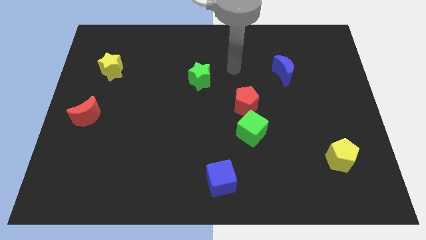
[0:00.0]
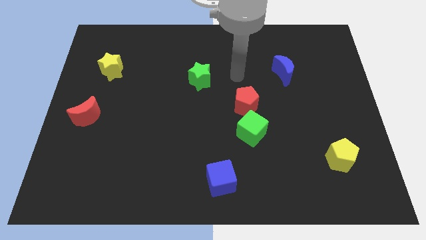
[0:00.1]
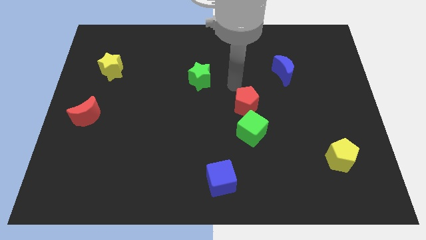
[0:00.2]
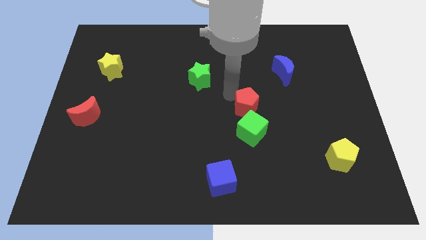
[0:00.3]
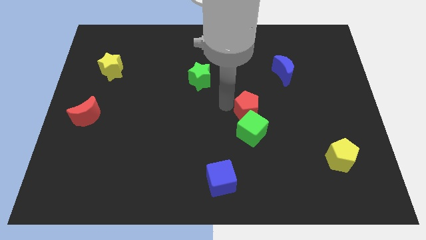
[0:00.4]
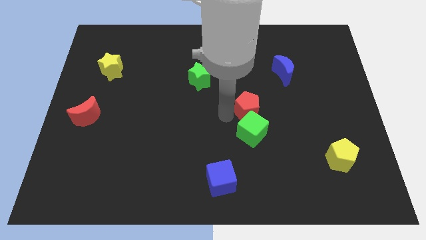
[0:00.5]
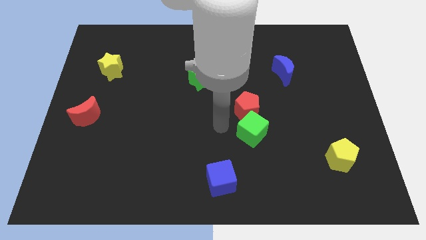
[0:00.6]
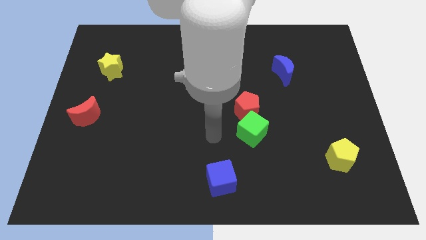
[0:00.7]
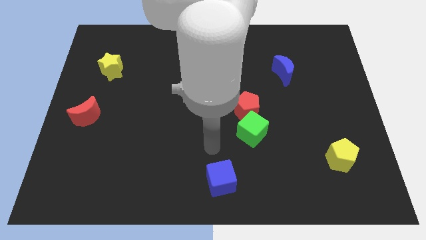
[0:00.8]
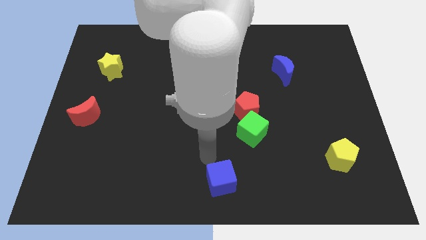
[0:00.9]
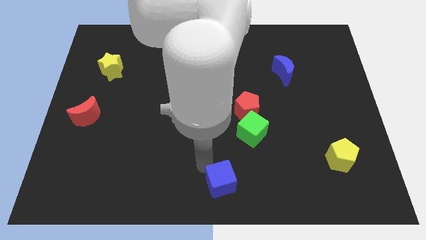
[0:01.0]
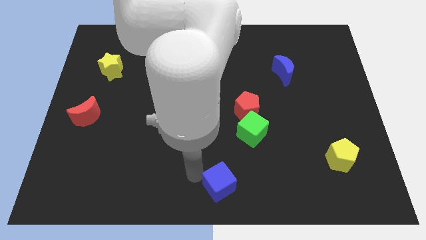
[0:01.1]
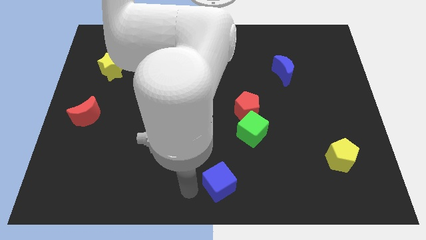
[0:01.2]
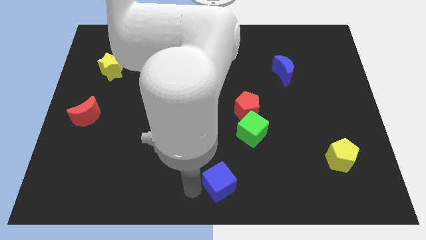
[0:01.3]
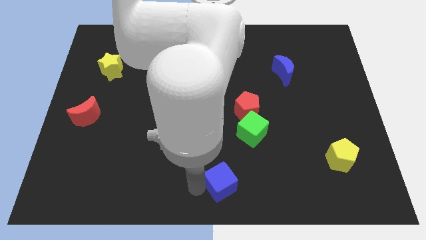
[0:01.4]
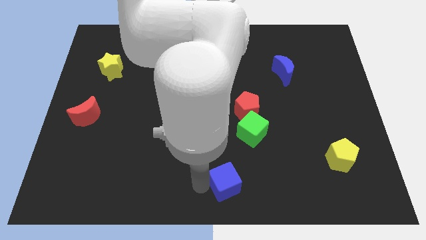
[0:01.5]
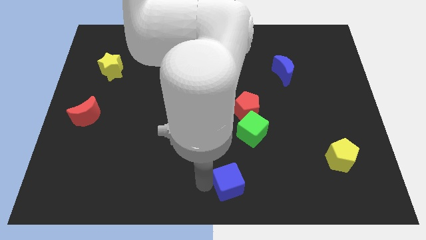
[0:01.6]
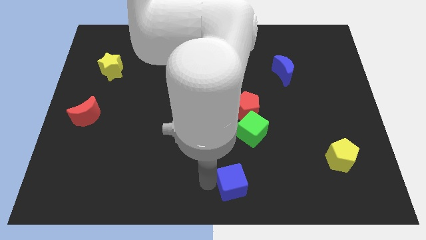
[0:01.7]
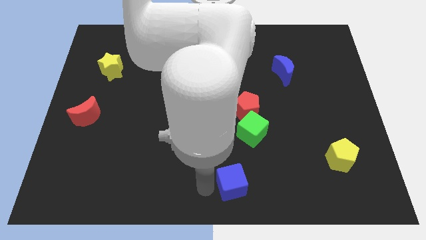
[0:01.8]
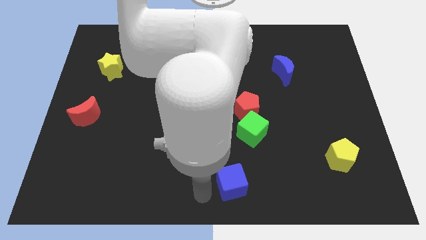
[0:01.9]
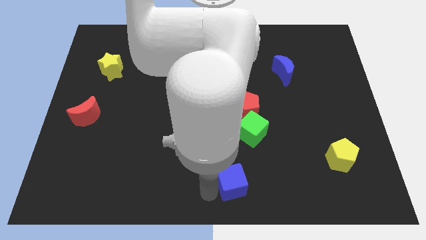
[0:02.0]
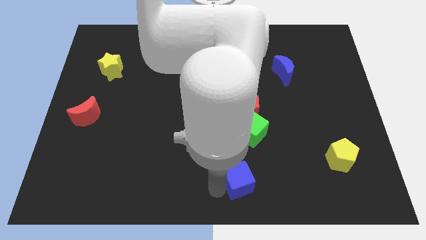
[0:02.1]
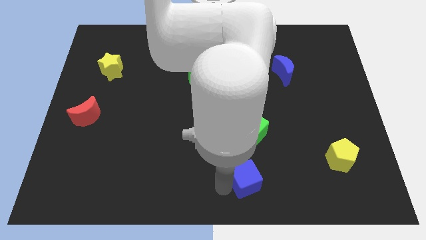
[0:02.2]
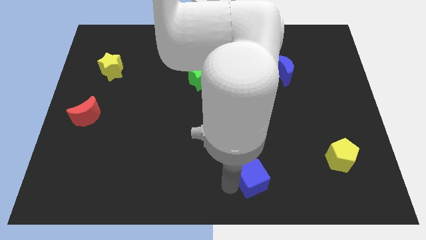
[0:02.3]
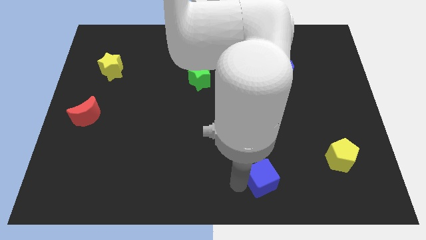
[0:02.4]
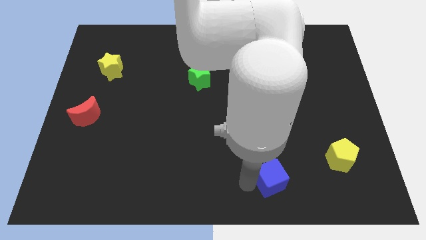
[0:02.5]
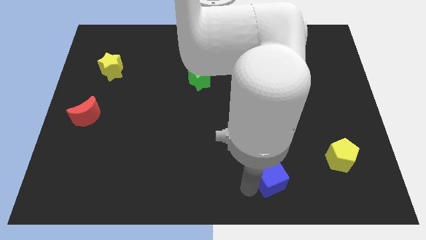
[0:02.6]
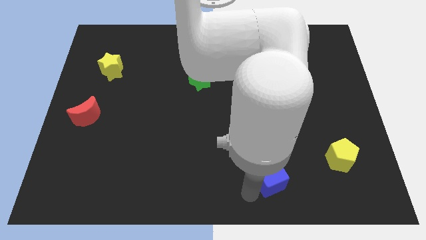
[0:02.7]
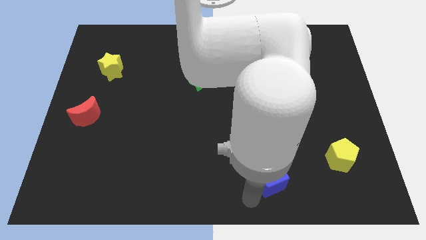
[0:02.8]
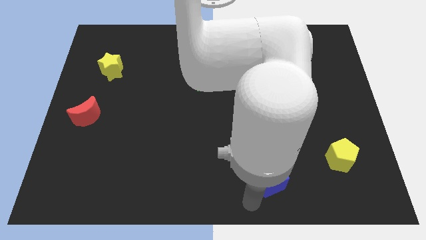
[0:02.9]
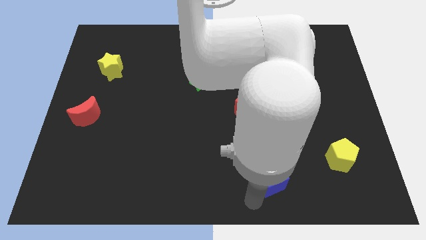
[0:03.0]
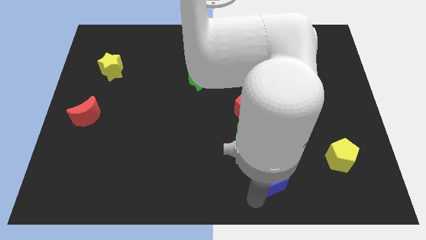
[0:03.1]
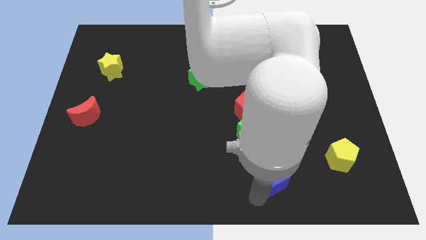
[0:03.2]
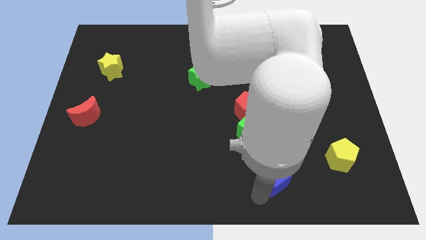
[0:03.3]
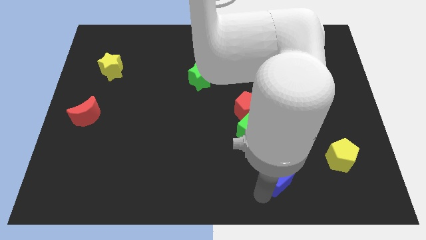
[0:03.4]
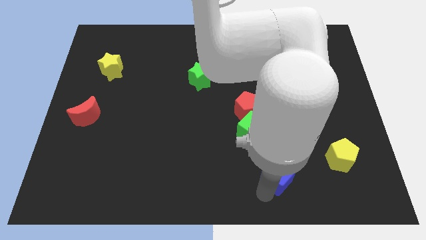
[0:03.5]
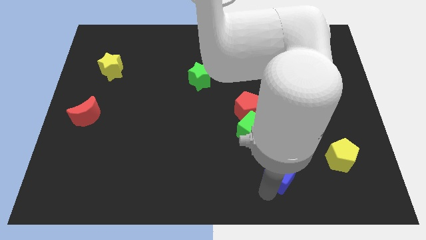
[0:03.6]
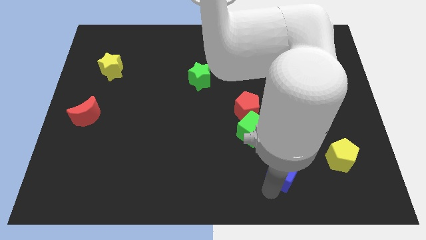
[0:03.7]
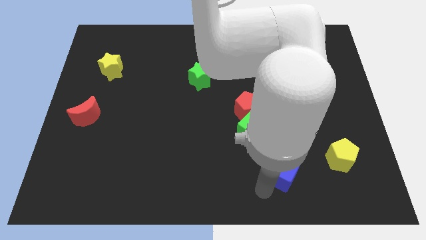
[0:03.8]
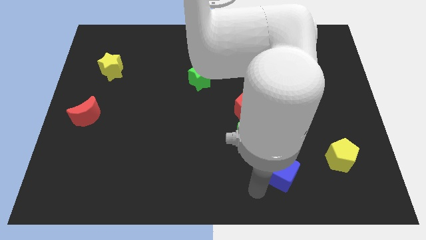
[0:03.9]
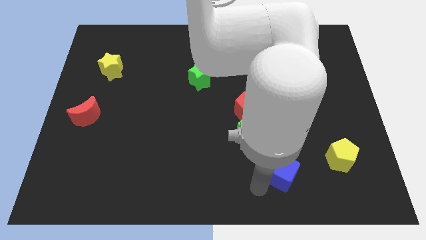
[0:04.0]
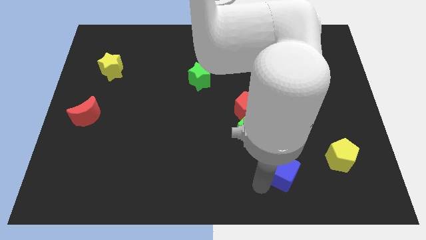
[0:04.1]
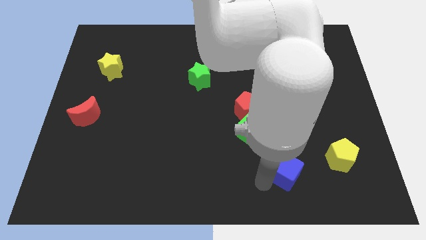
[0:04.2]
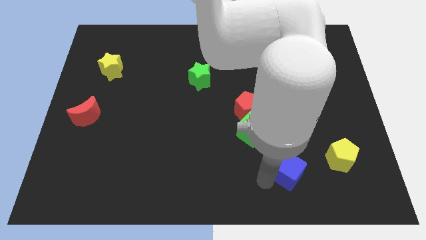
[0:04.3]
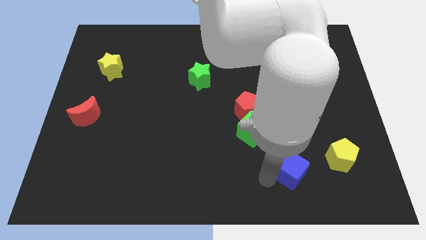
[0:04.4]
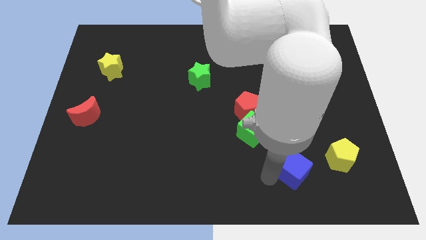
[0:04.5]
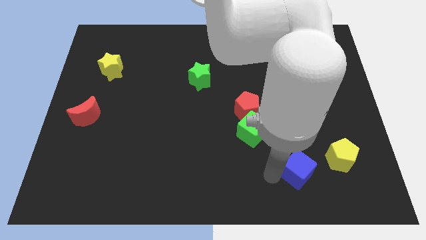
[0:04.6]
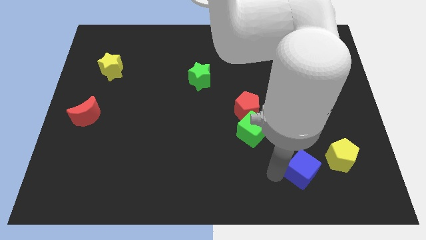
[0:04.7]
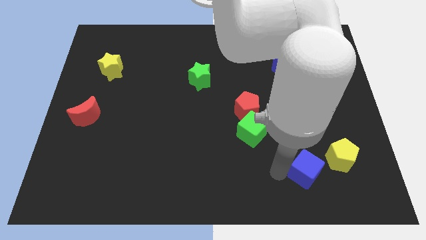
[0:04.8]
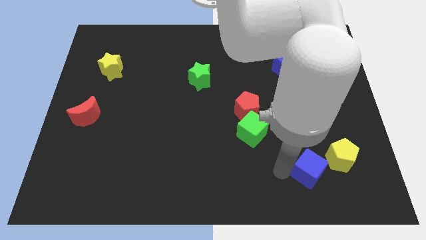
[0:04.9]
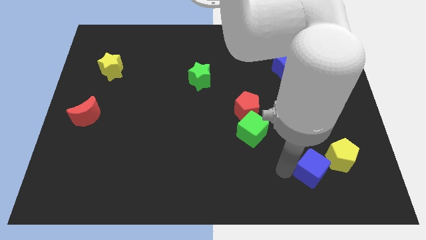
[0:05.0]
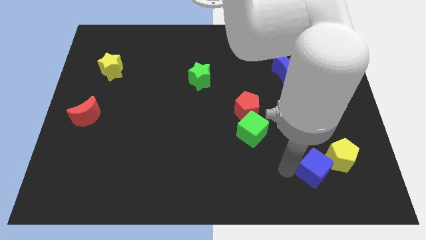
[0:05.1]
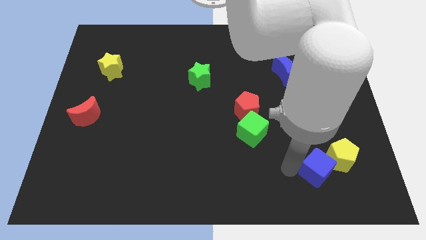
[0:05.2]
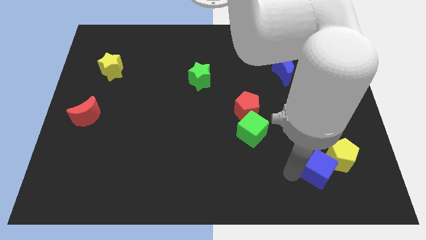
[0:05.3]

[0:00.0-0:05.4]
put the blue cube to the yellow pentagon
